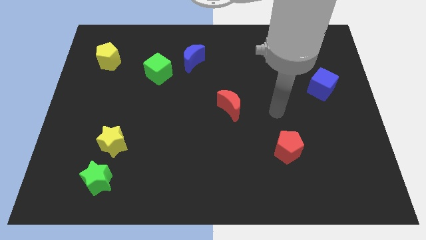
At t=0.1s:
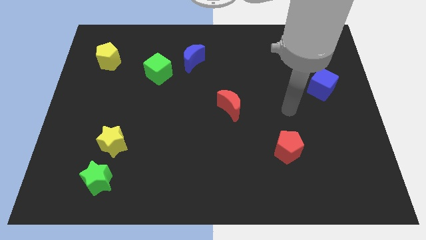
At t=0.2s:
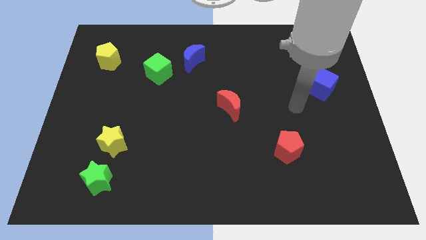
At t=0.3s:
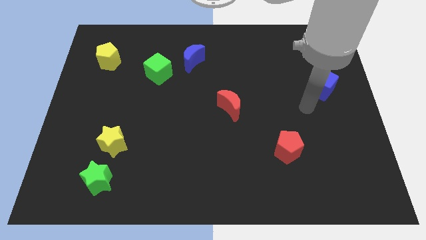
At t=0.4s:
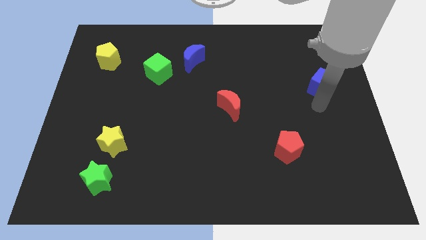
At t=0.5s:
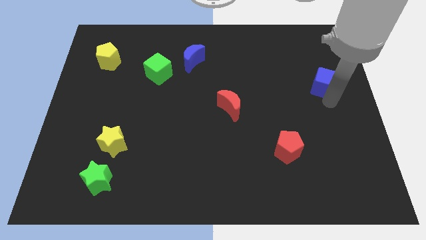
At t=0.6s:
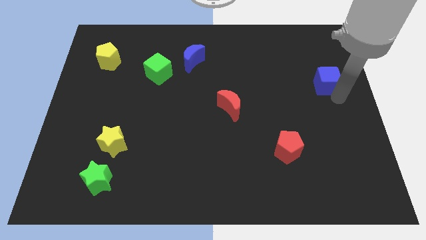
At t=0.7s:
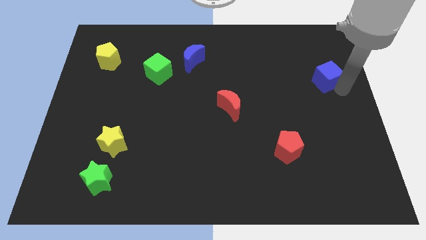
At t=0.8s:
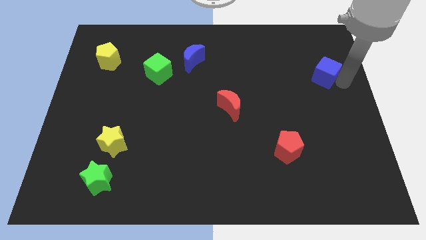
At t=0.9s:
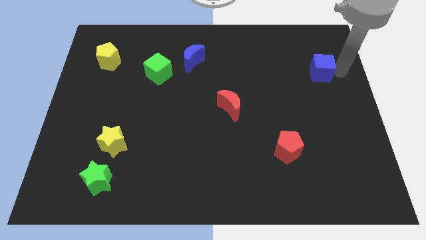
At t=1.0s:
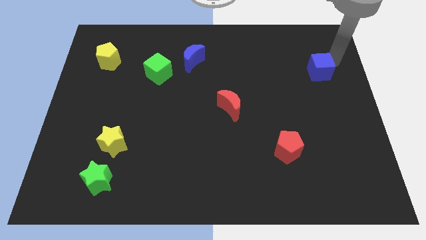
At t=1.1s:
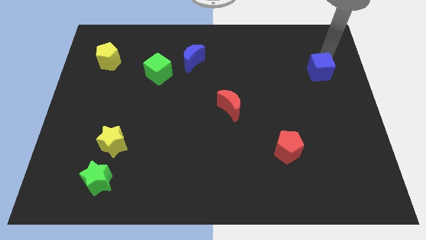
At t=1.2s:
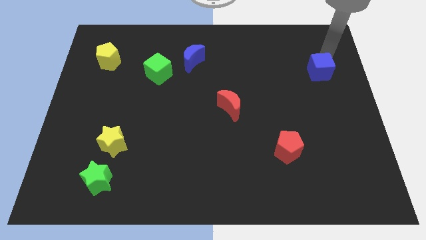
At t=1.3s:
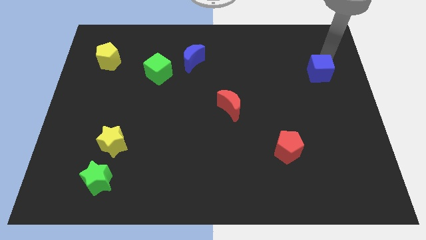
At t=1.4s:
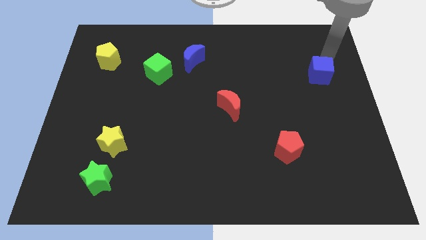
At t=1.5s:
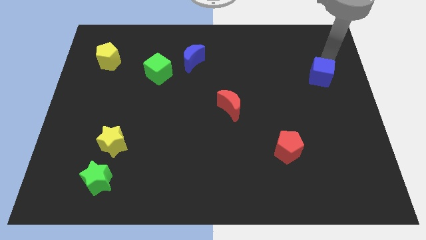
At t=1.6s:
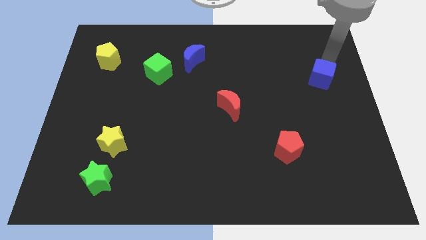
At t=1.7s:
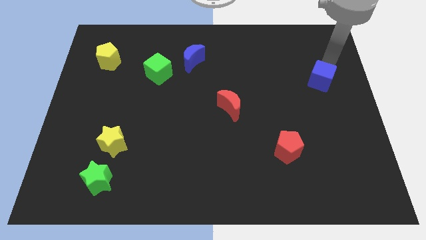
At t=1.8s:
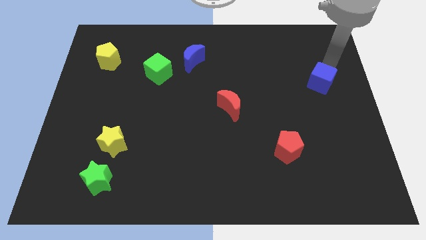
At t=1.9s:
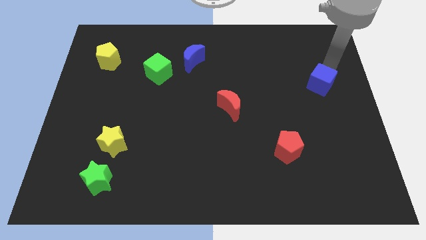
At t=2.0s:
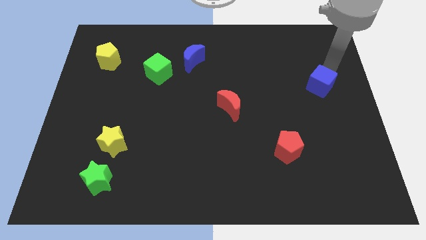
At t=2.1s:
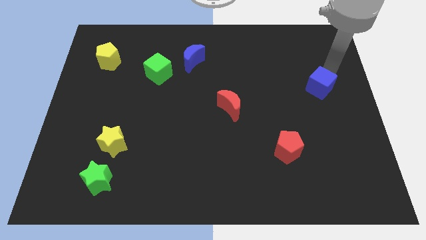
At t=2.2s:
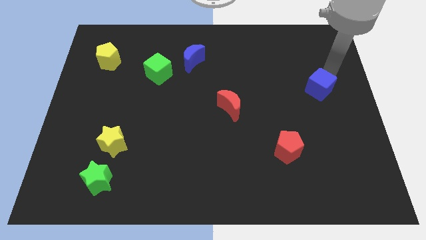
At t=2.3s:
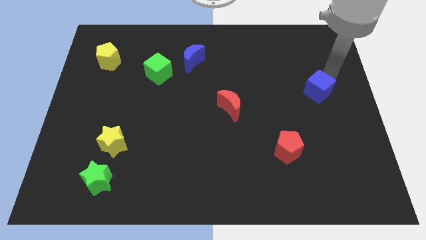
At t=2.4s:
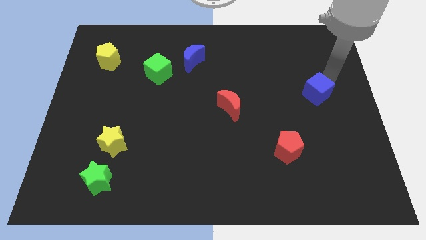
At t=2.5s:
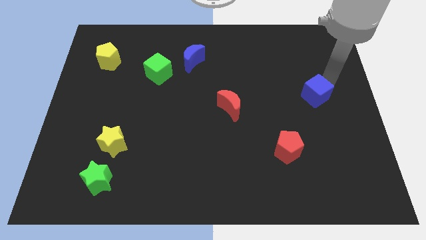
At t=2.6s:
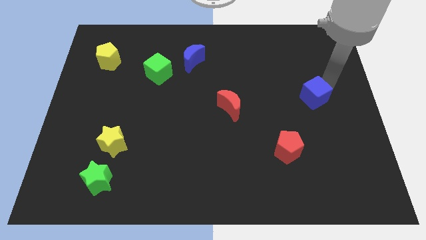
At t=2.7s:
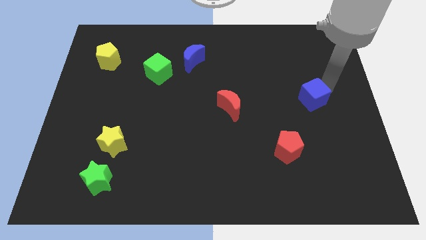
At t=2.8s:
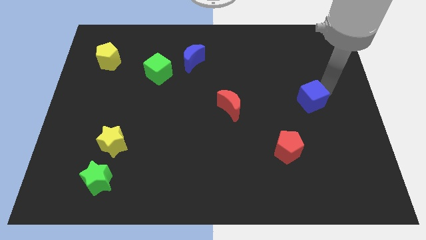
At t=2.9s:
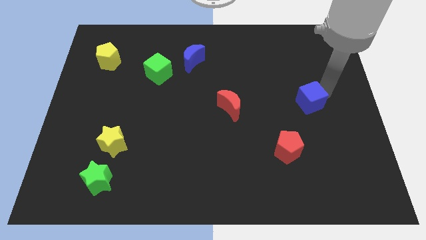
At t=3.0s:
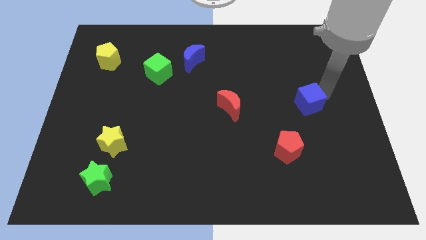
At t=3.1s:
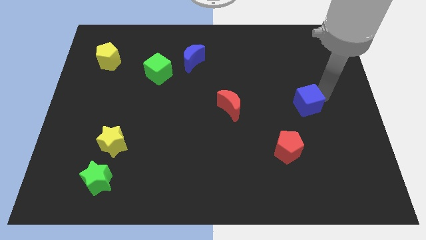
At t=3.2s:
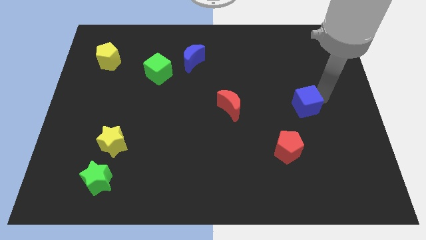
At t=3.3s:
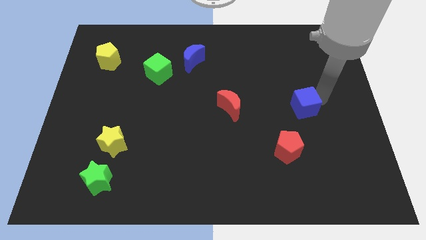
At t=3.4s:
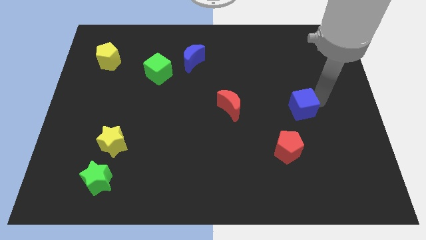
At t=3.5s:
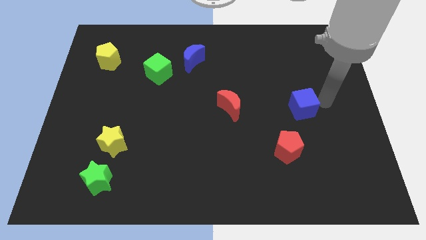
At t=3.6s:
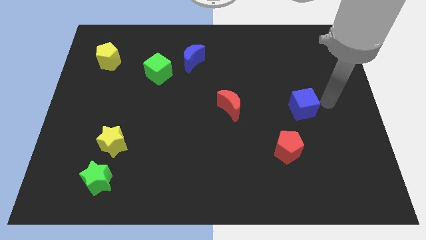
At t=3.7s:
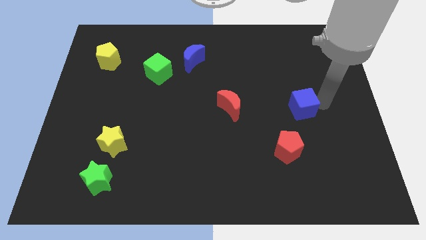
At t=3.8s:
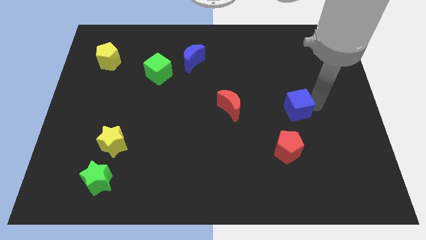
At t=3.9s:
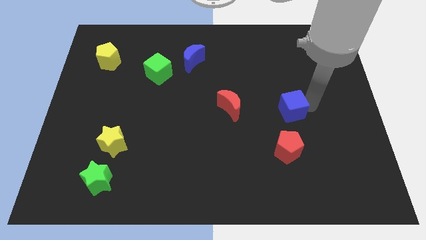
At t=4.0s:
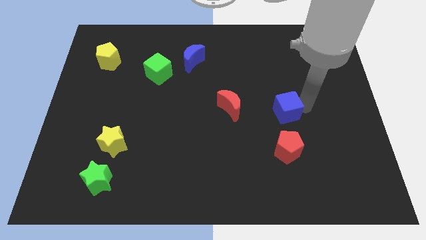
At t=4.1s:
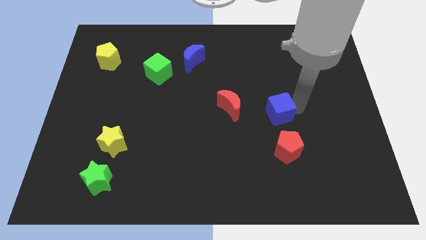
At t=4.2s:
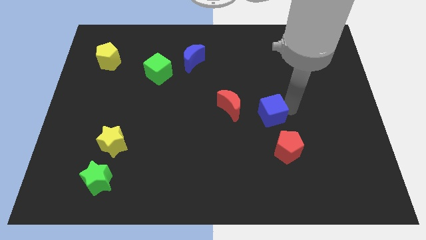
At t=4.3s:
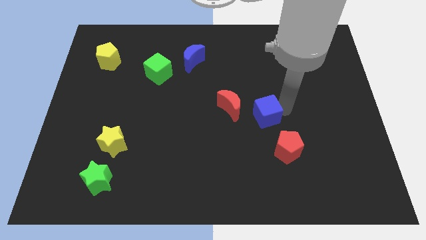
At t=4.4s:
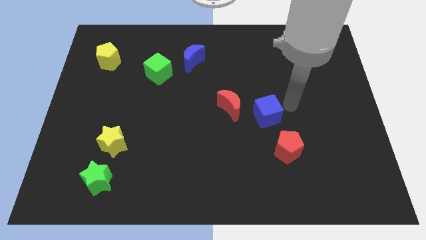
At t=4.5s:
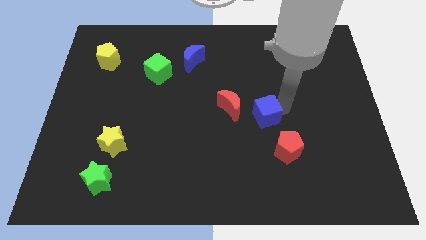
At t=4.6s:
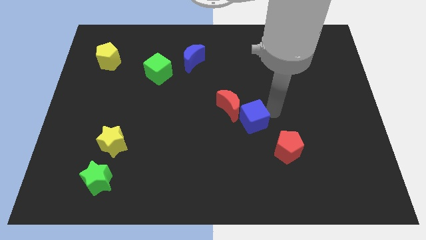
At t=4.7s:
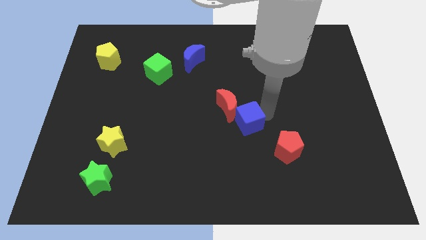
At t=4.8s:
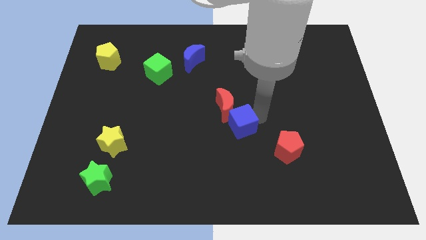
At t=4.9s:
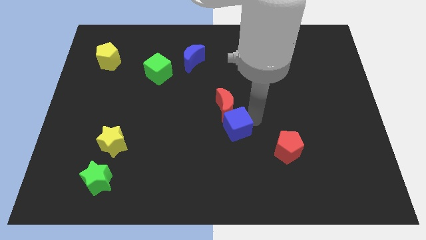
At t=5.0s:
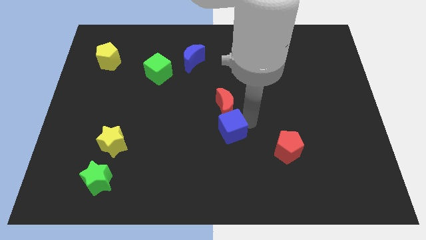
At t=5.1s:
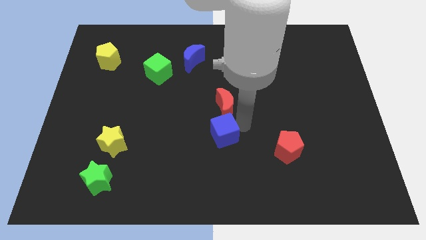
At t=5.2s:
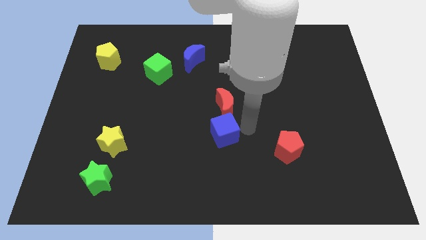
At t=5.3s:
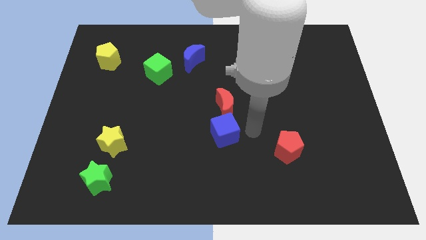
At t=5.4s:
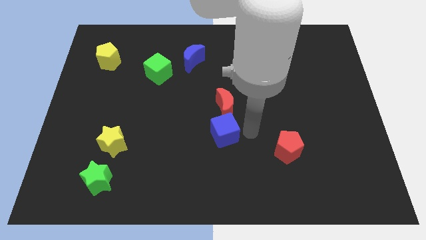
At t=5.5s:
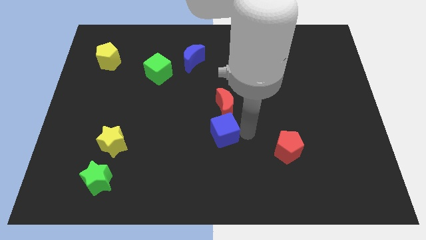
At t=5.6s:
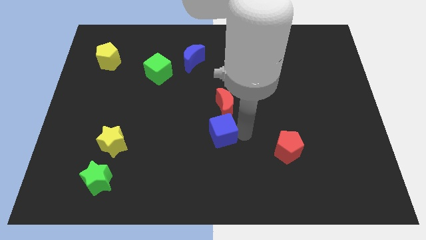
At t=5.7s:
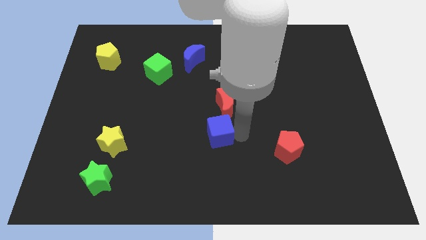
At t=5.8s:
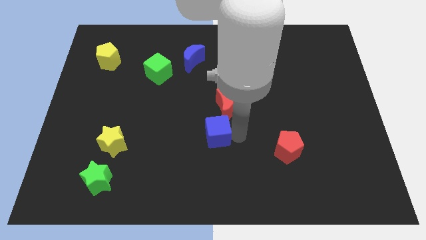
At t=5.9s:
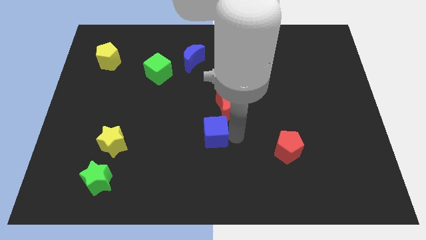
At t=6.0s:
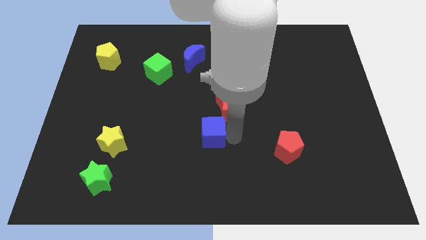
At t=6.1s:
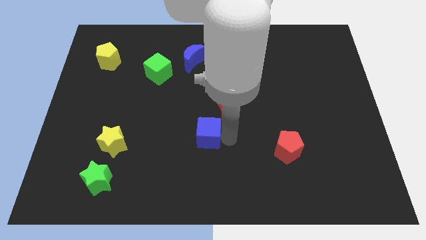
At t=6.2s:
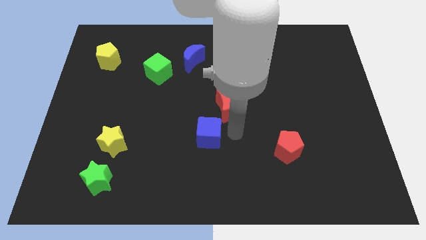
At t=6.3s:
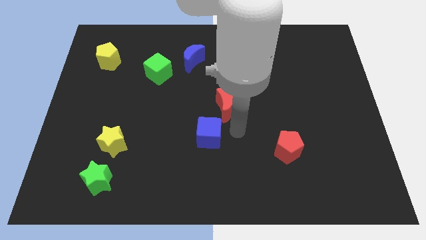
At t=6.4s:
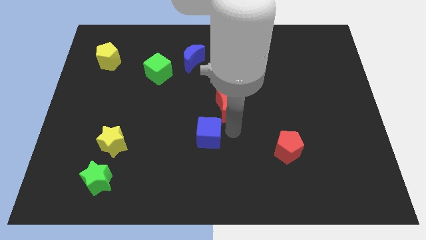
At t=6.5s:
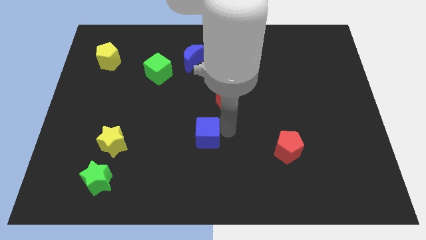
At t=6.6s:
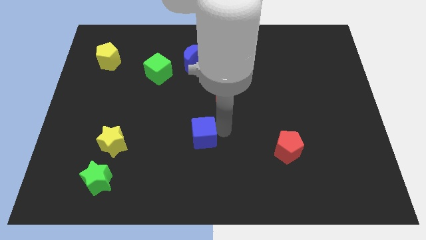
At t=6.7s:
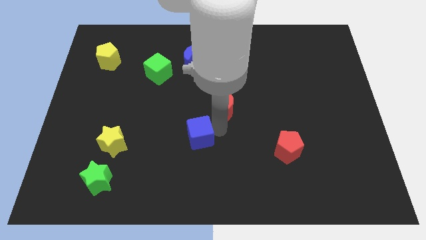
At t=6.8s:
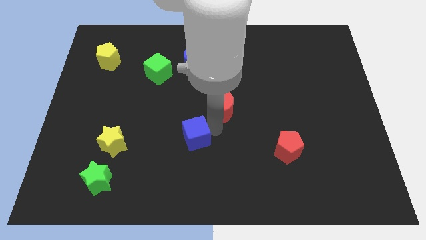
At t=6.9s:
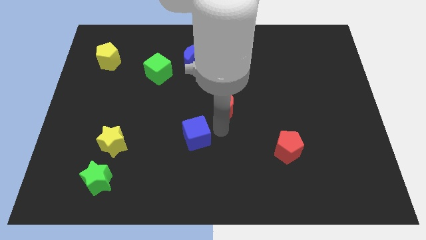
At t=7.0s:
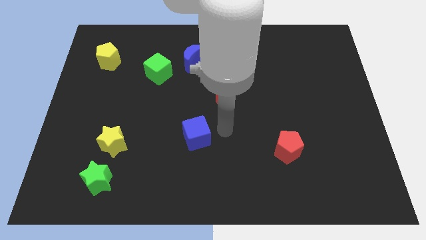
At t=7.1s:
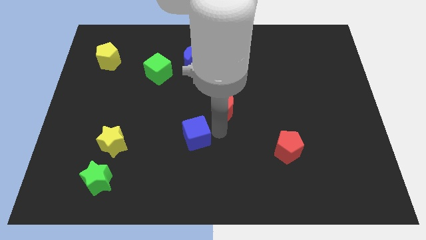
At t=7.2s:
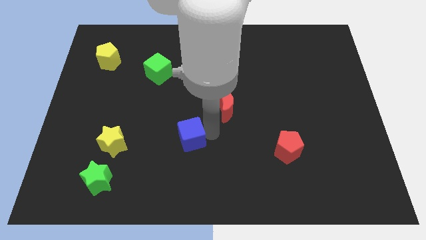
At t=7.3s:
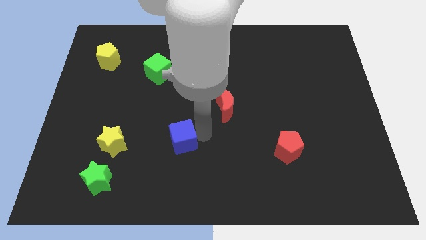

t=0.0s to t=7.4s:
move the blue cube right of the yellow star

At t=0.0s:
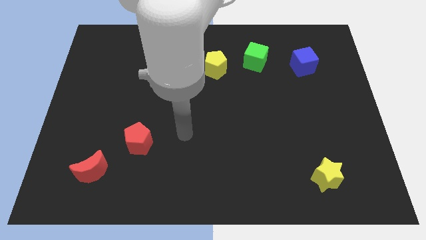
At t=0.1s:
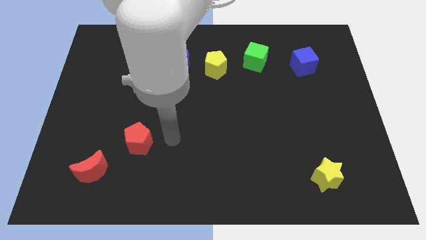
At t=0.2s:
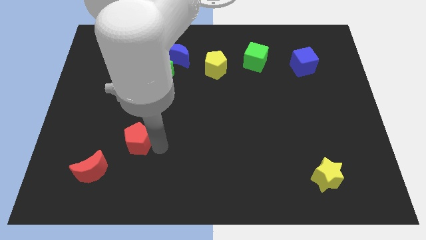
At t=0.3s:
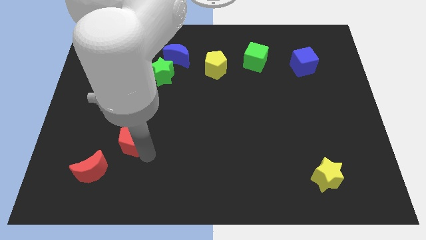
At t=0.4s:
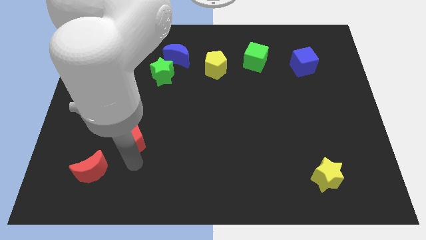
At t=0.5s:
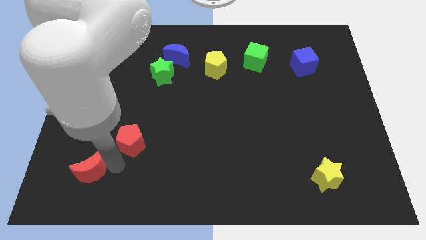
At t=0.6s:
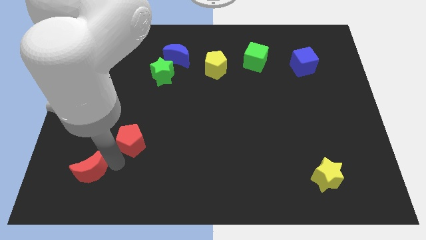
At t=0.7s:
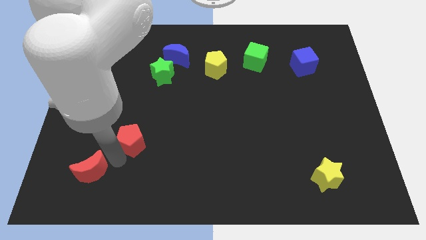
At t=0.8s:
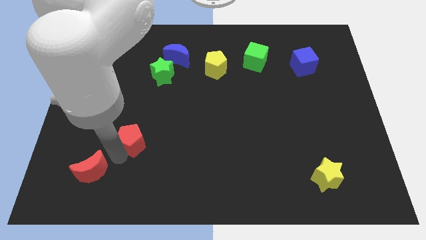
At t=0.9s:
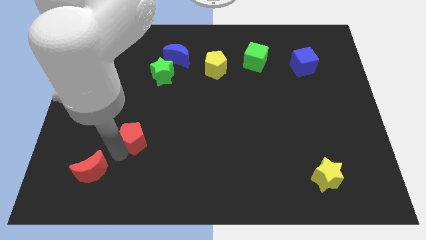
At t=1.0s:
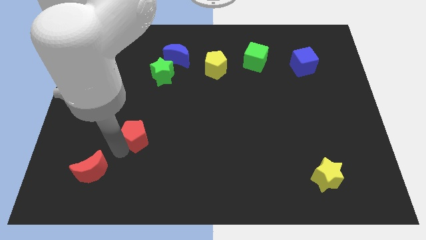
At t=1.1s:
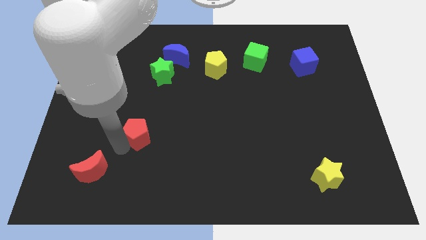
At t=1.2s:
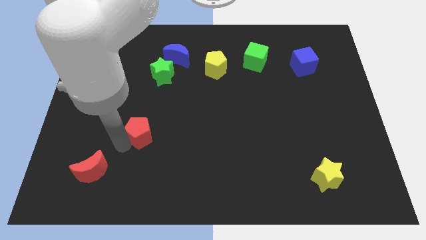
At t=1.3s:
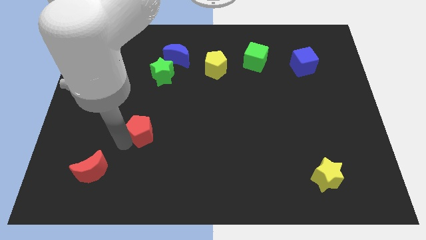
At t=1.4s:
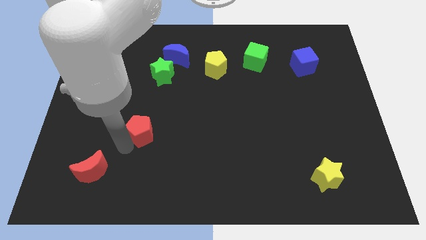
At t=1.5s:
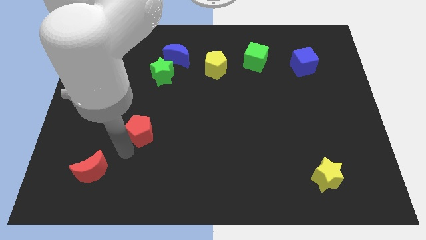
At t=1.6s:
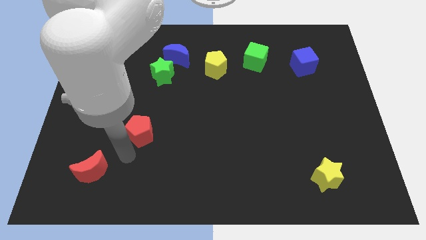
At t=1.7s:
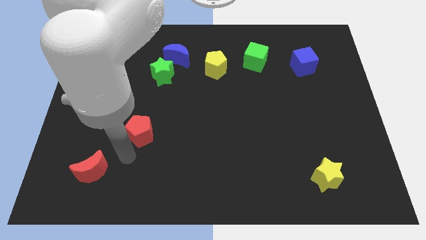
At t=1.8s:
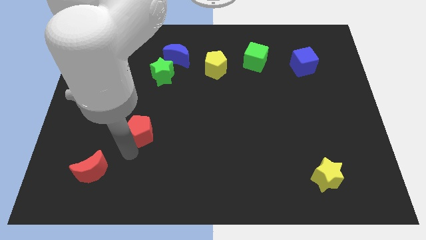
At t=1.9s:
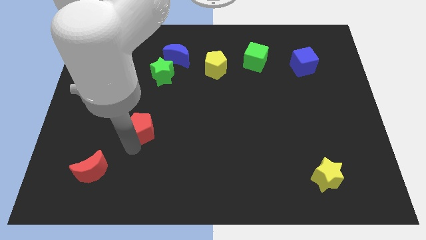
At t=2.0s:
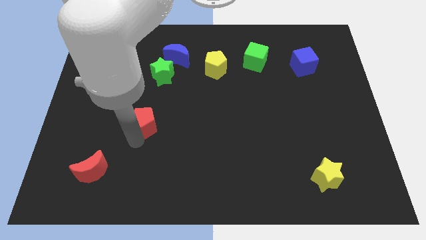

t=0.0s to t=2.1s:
push the red pentagon to the bottom side of the green star
